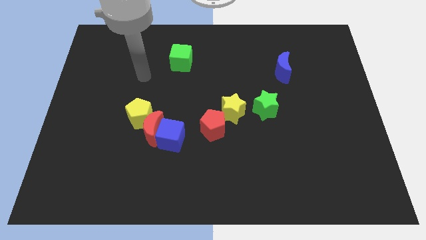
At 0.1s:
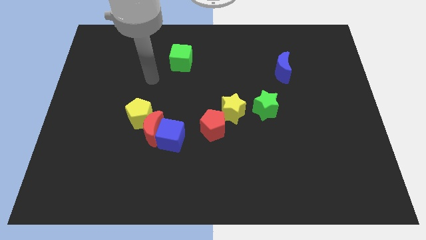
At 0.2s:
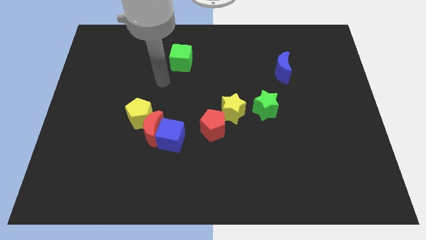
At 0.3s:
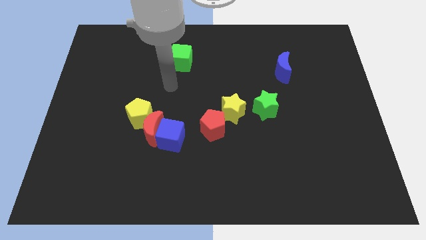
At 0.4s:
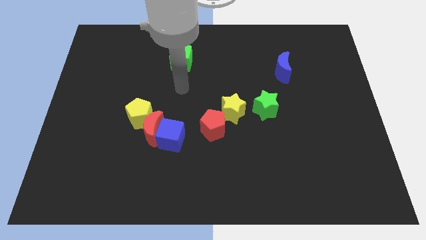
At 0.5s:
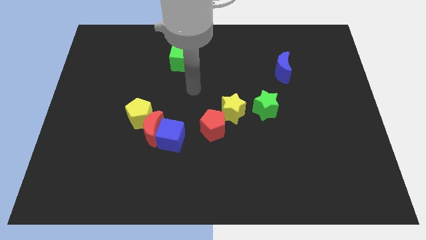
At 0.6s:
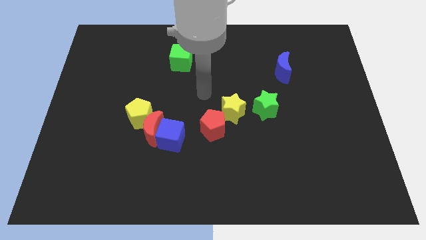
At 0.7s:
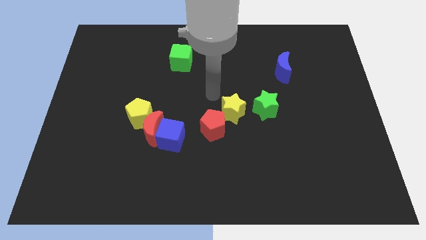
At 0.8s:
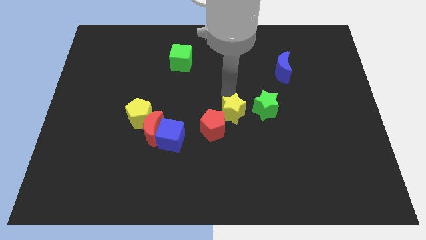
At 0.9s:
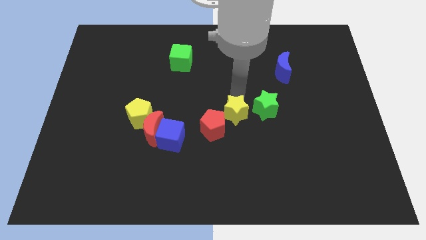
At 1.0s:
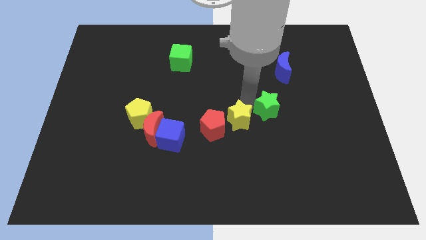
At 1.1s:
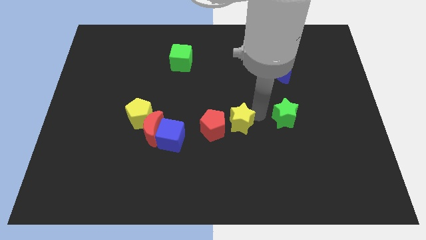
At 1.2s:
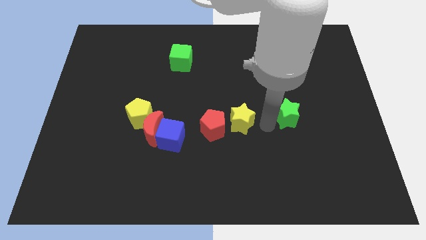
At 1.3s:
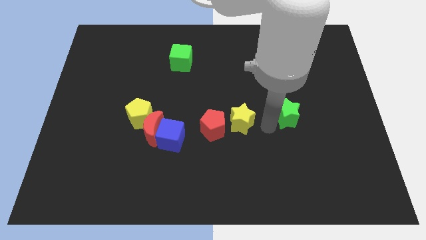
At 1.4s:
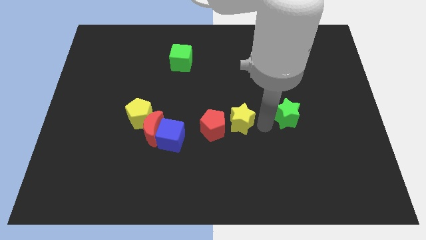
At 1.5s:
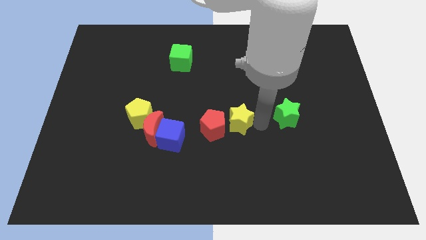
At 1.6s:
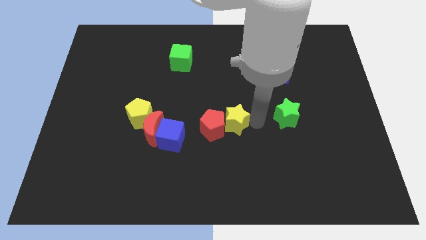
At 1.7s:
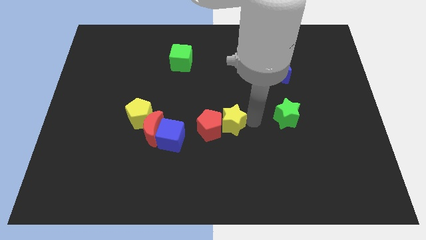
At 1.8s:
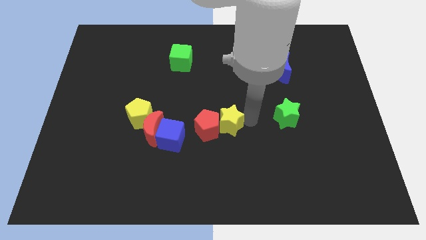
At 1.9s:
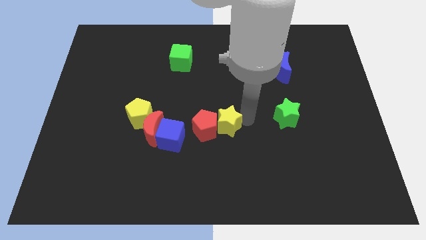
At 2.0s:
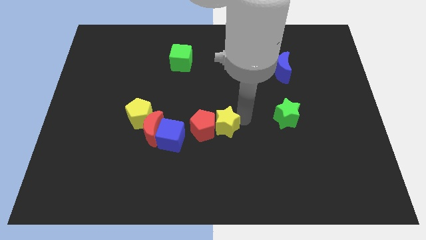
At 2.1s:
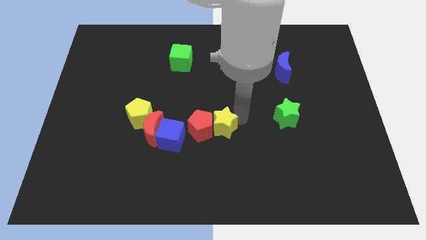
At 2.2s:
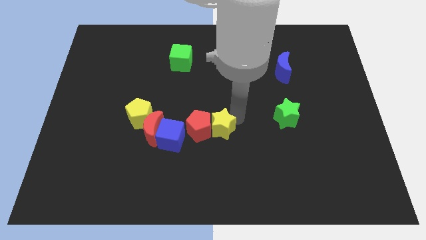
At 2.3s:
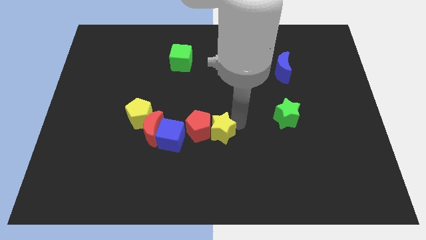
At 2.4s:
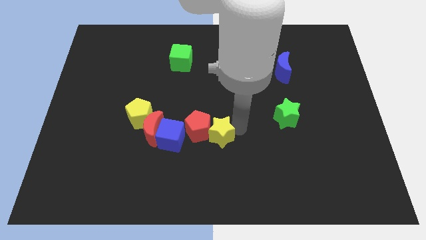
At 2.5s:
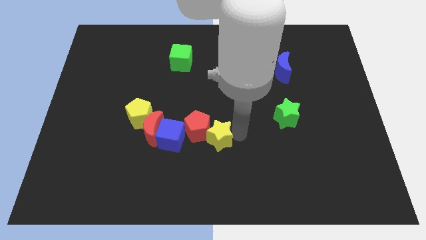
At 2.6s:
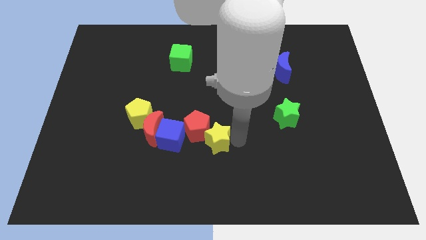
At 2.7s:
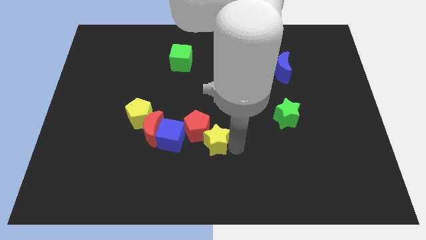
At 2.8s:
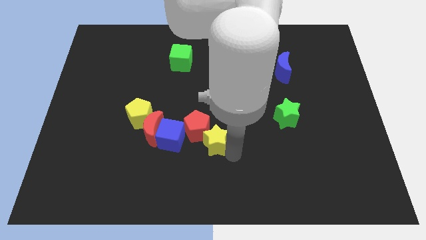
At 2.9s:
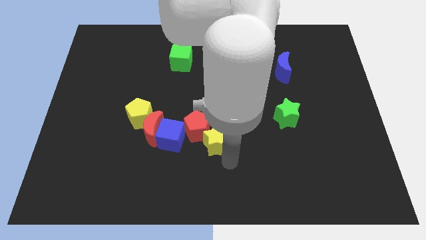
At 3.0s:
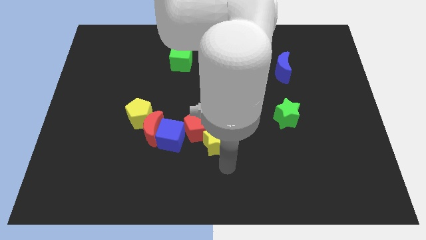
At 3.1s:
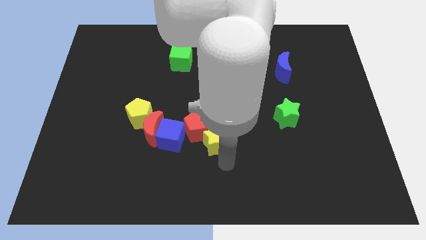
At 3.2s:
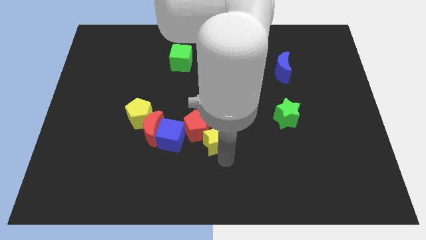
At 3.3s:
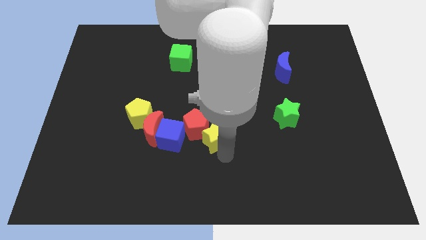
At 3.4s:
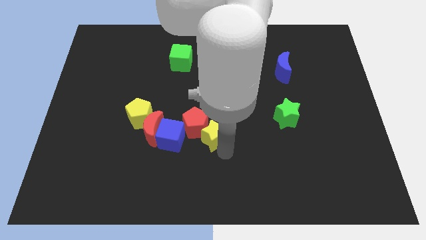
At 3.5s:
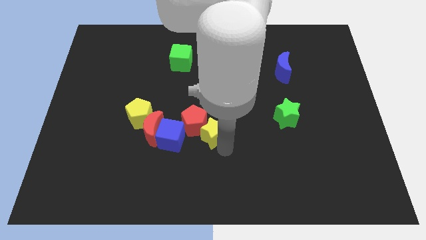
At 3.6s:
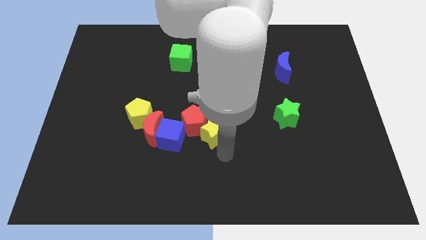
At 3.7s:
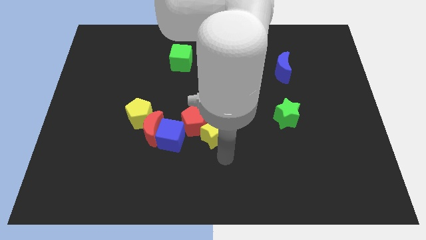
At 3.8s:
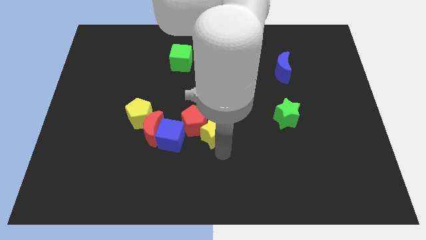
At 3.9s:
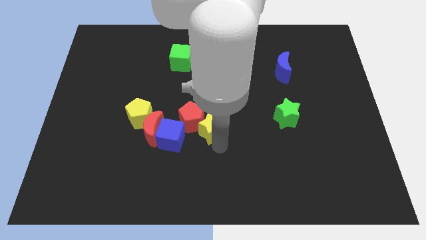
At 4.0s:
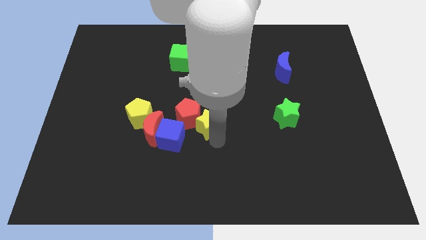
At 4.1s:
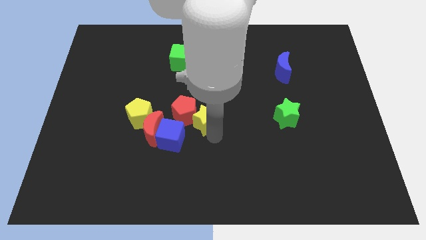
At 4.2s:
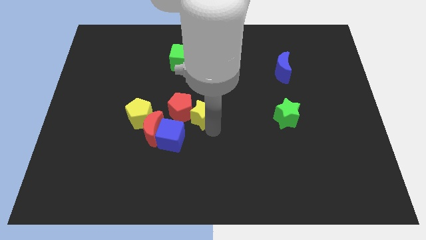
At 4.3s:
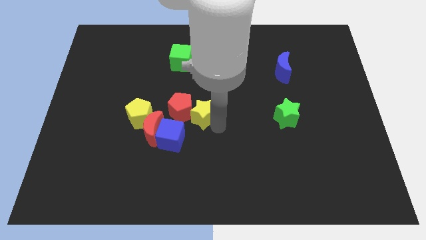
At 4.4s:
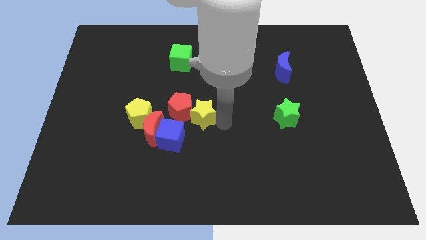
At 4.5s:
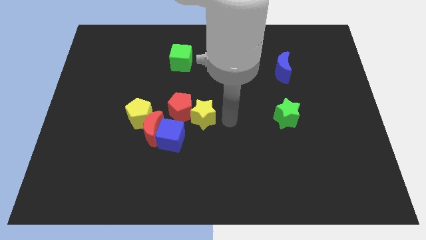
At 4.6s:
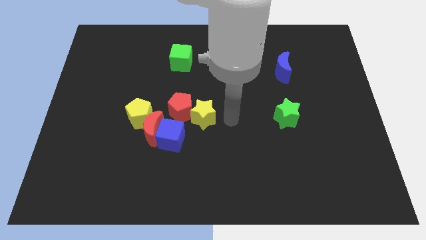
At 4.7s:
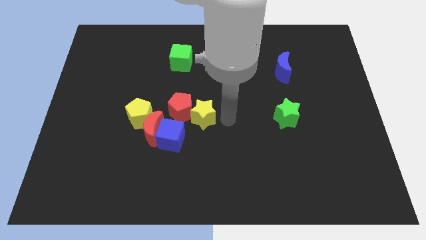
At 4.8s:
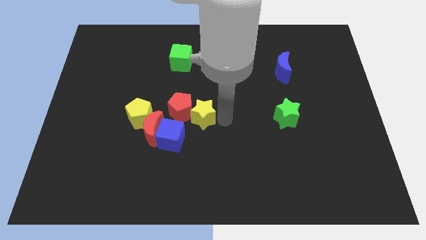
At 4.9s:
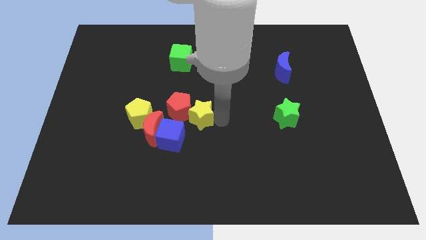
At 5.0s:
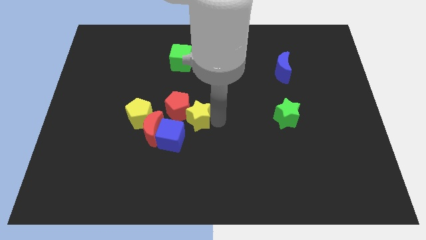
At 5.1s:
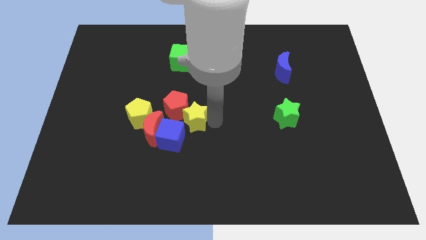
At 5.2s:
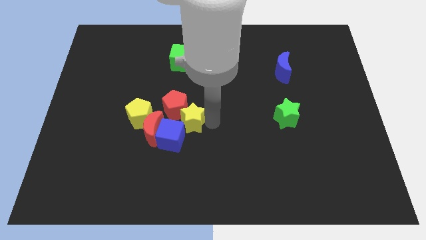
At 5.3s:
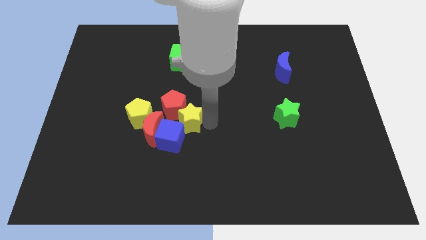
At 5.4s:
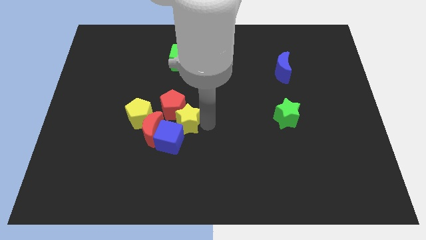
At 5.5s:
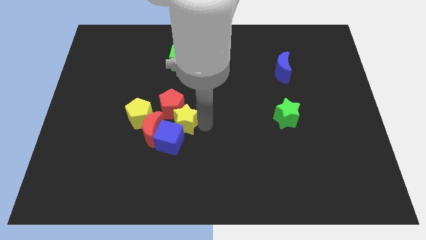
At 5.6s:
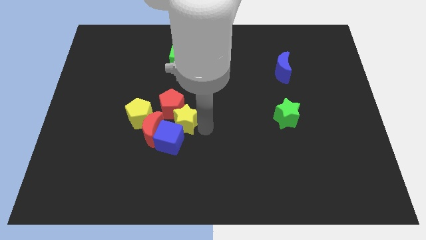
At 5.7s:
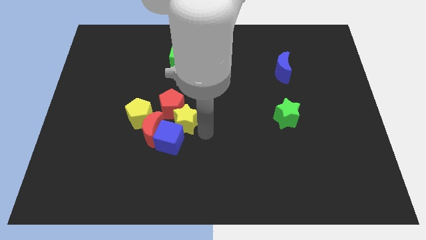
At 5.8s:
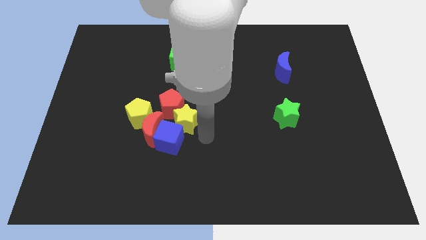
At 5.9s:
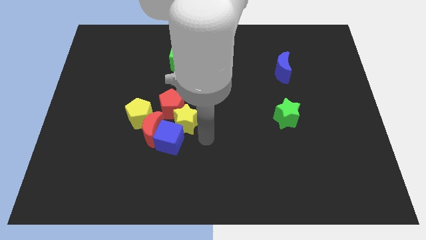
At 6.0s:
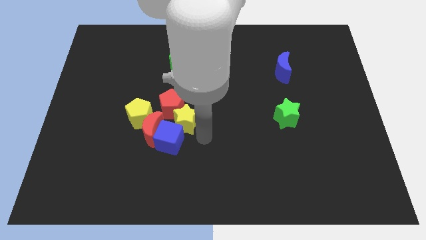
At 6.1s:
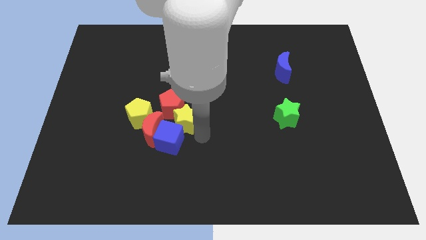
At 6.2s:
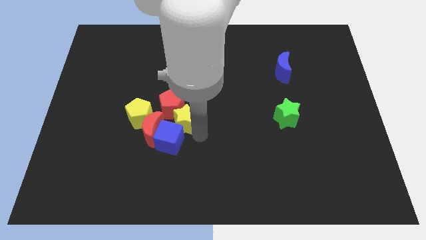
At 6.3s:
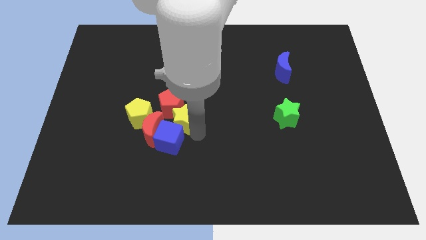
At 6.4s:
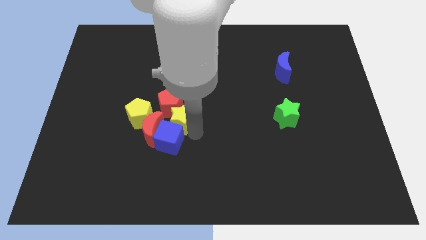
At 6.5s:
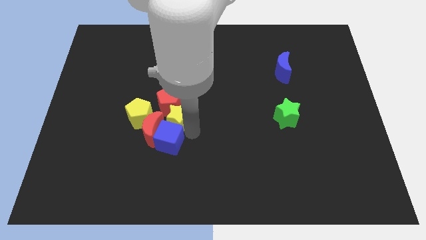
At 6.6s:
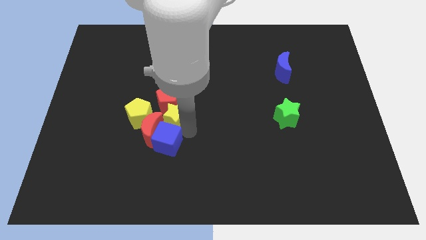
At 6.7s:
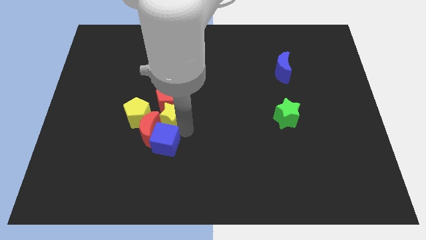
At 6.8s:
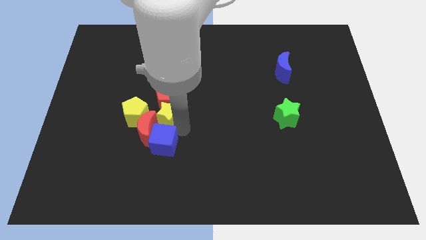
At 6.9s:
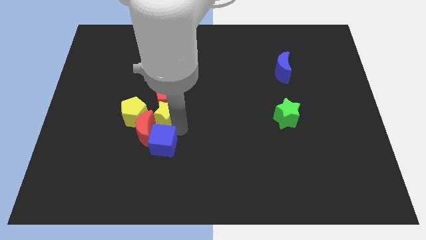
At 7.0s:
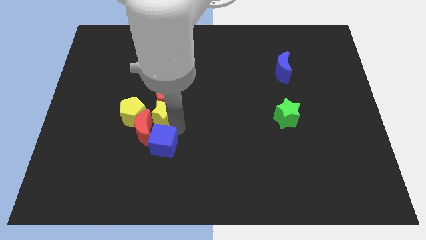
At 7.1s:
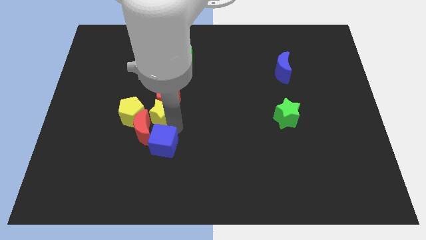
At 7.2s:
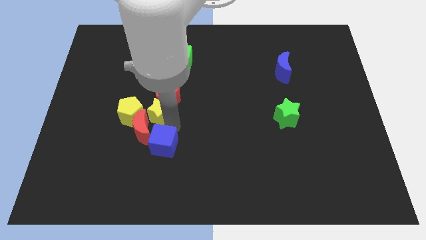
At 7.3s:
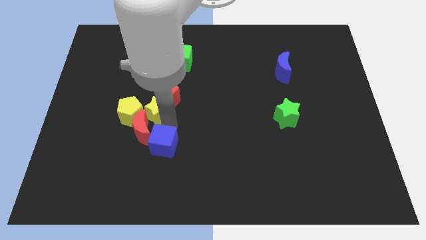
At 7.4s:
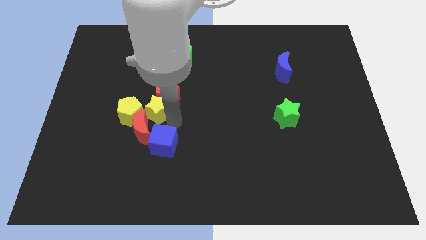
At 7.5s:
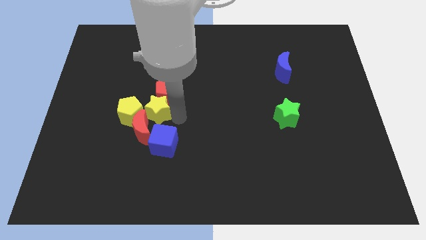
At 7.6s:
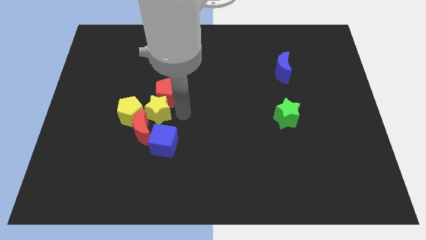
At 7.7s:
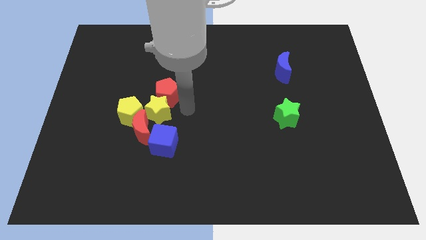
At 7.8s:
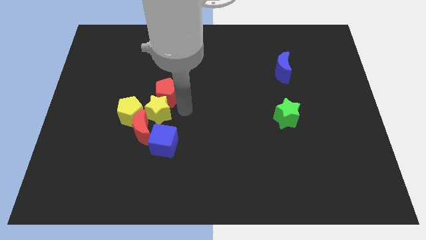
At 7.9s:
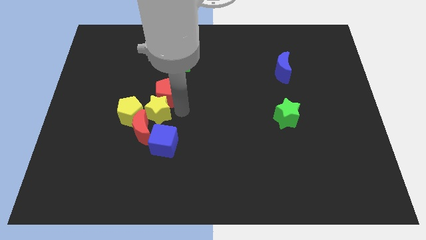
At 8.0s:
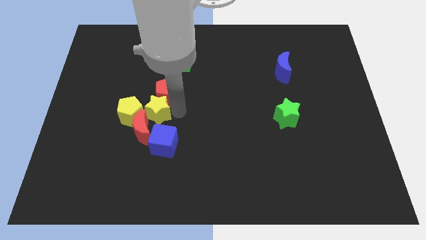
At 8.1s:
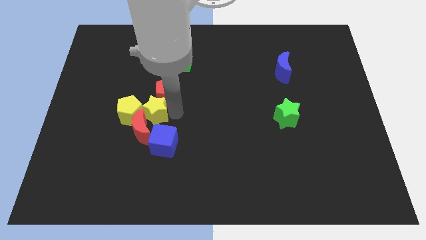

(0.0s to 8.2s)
slide the yellow star next to the yellow pentagon
